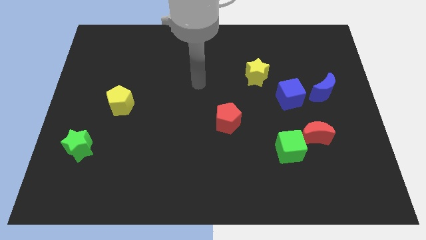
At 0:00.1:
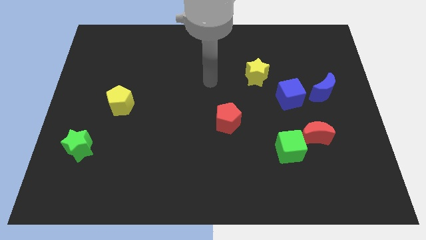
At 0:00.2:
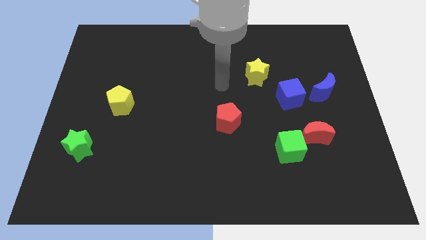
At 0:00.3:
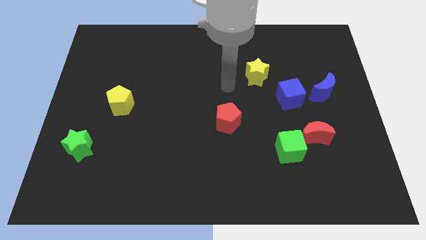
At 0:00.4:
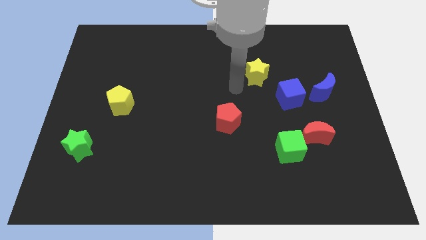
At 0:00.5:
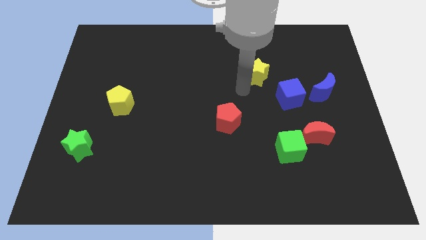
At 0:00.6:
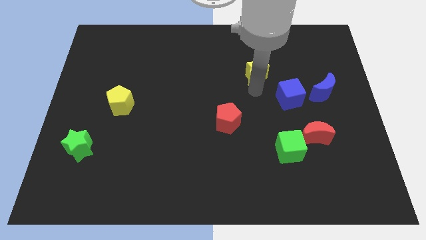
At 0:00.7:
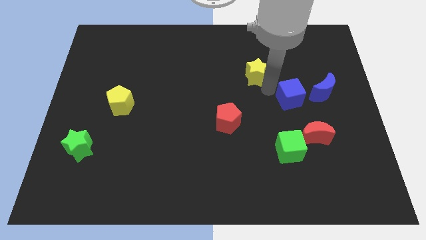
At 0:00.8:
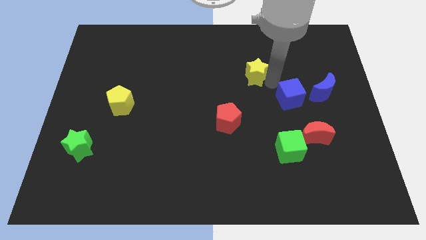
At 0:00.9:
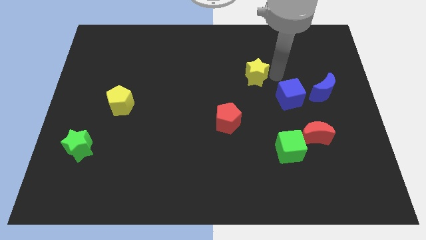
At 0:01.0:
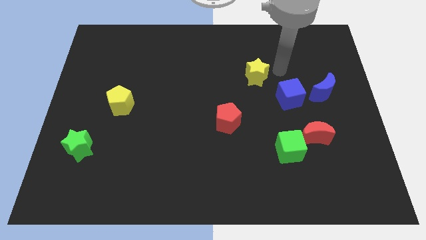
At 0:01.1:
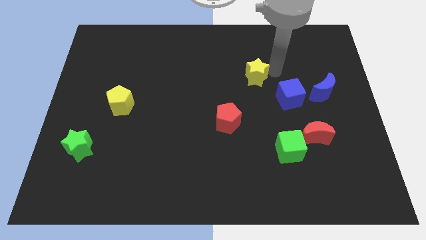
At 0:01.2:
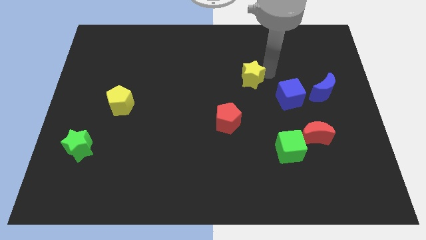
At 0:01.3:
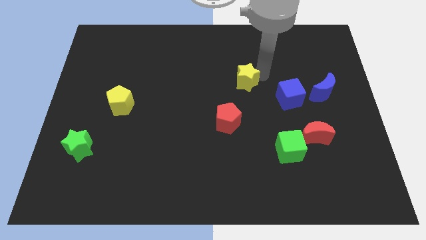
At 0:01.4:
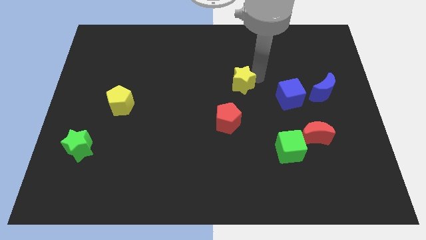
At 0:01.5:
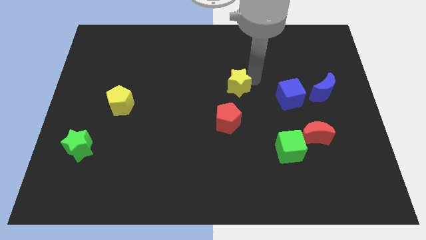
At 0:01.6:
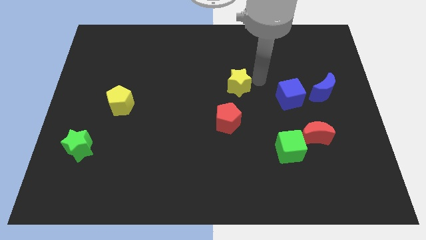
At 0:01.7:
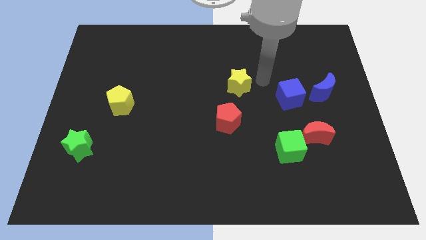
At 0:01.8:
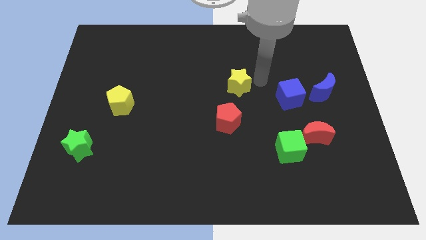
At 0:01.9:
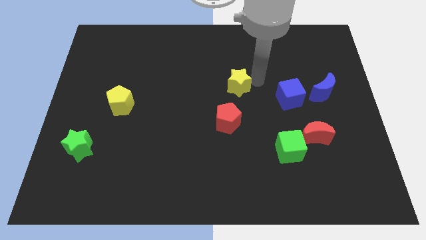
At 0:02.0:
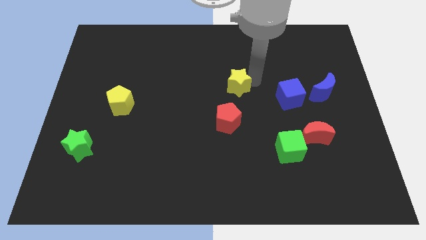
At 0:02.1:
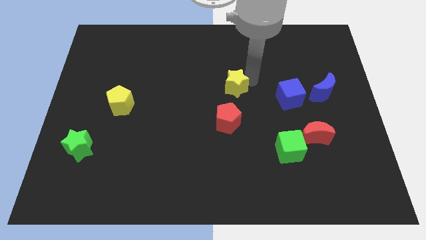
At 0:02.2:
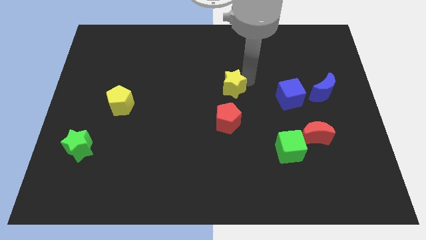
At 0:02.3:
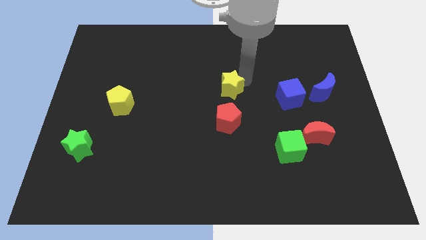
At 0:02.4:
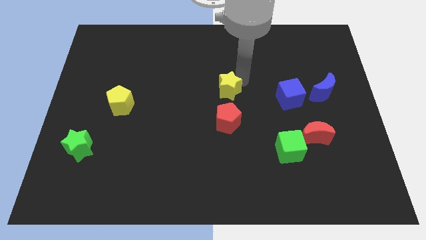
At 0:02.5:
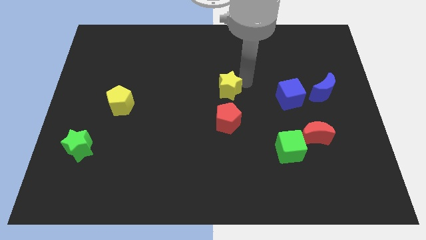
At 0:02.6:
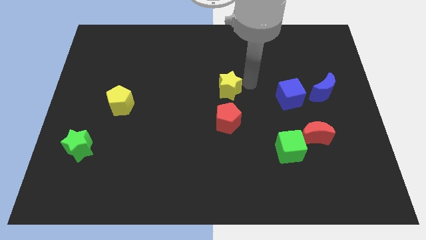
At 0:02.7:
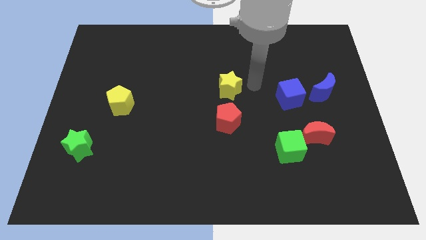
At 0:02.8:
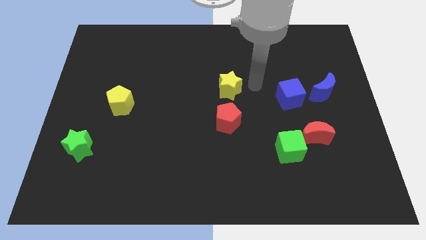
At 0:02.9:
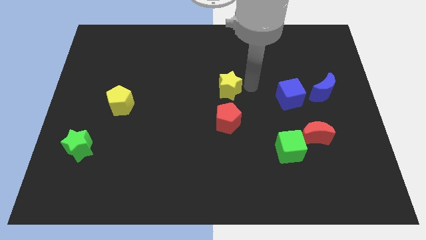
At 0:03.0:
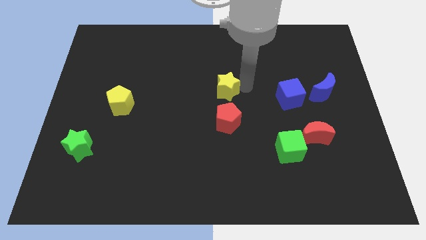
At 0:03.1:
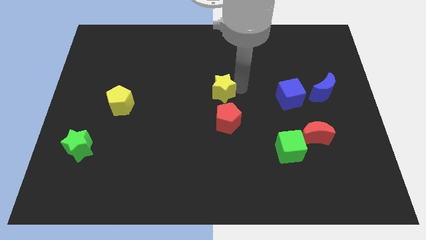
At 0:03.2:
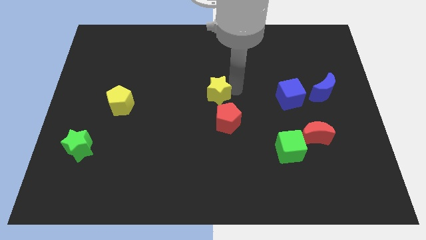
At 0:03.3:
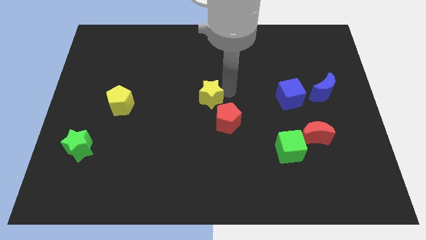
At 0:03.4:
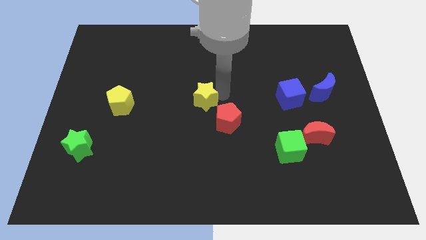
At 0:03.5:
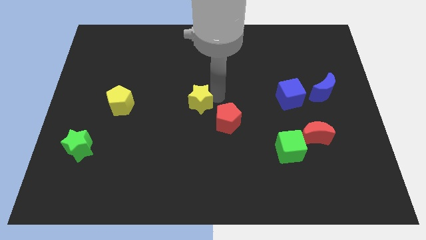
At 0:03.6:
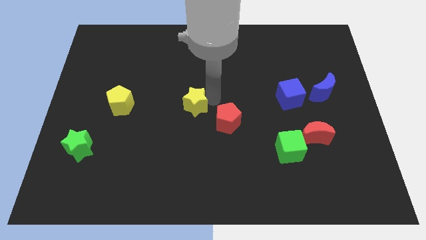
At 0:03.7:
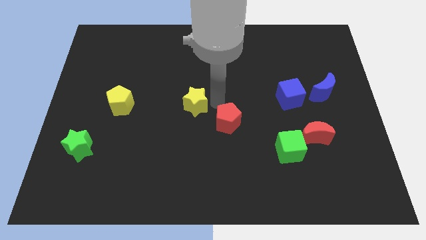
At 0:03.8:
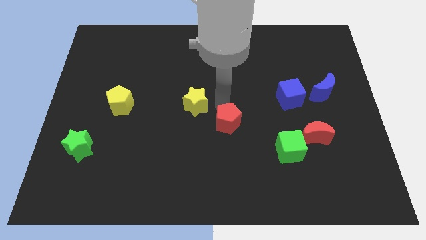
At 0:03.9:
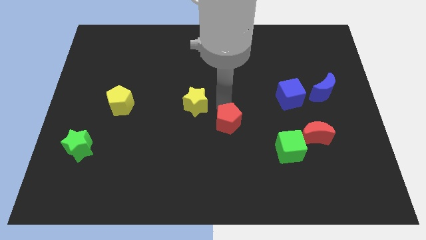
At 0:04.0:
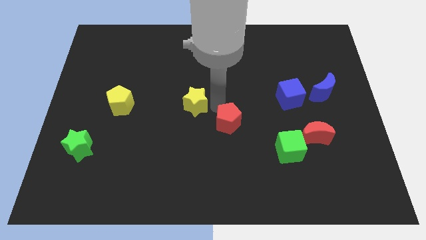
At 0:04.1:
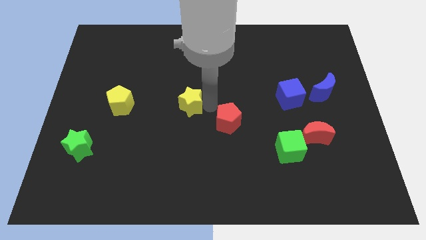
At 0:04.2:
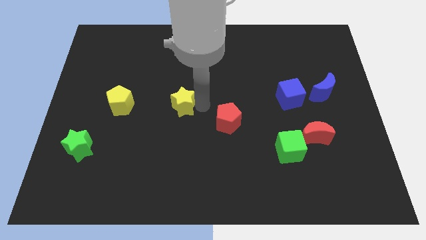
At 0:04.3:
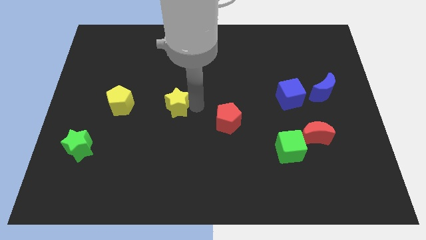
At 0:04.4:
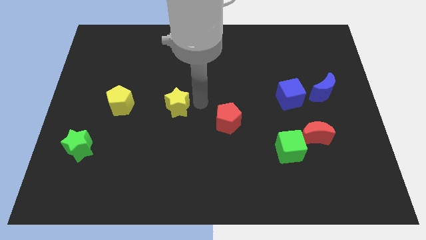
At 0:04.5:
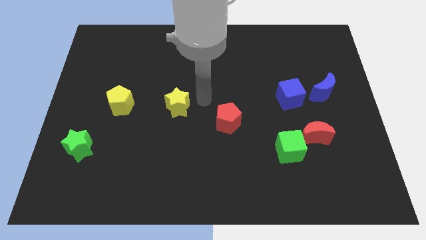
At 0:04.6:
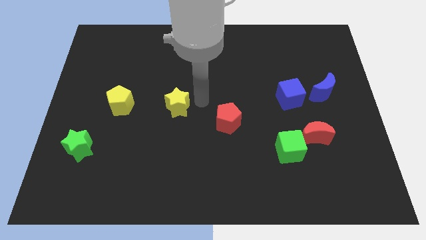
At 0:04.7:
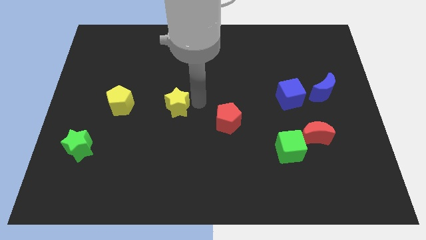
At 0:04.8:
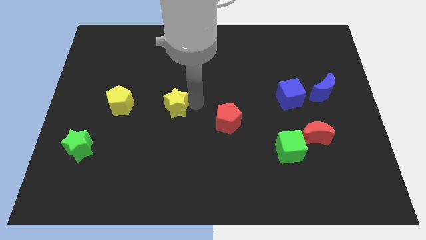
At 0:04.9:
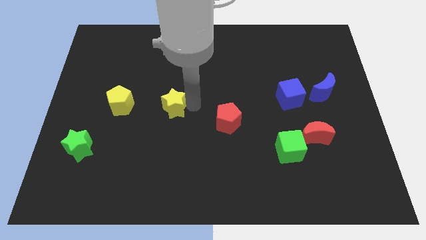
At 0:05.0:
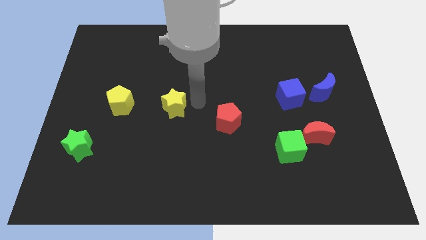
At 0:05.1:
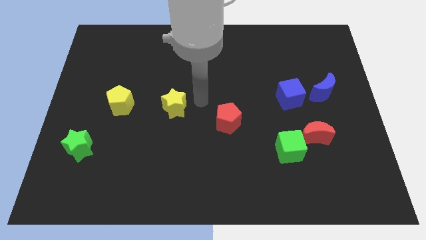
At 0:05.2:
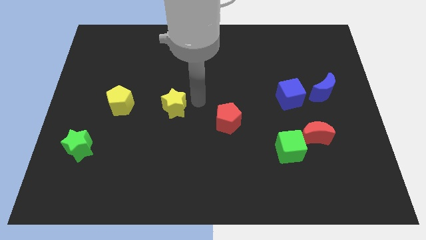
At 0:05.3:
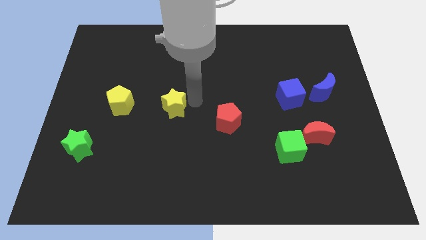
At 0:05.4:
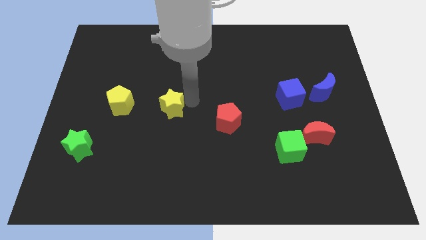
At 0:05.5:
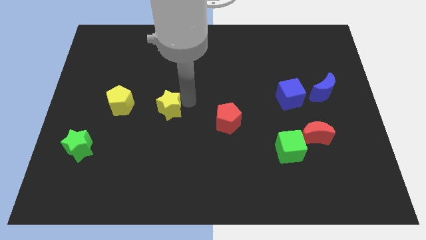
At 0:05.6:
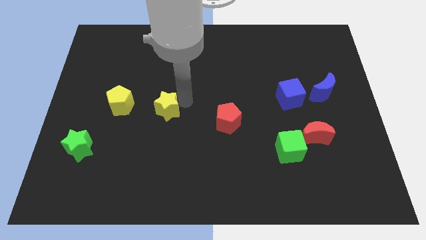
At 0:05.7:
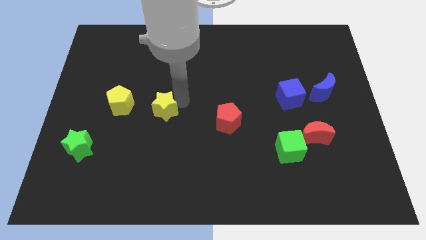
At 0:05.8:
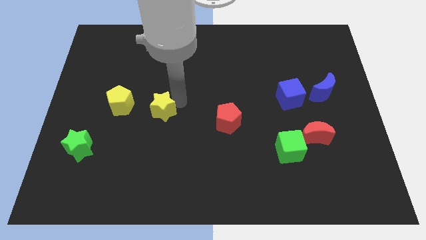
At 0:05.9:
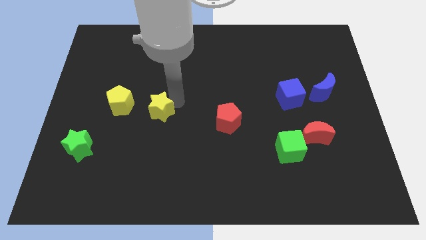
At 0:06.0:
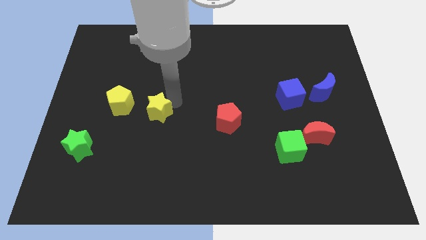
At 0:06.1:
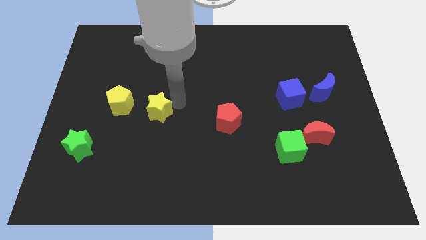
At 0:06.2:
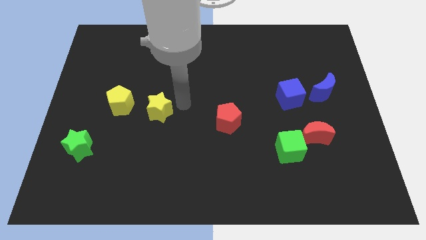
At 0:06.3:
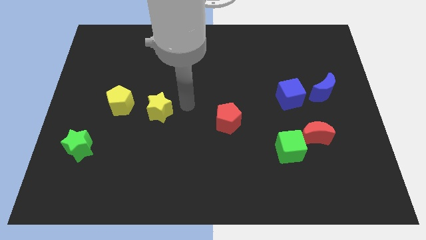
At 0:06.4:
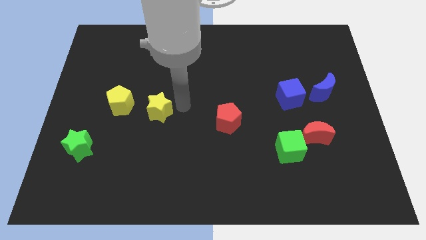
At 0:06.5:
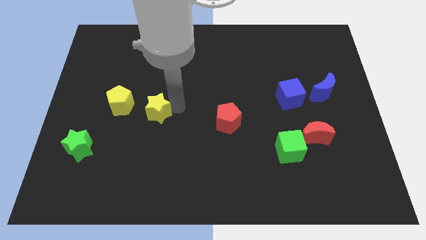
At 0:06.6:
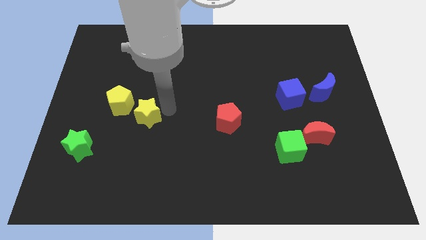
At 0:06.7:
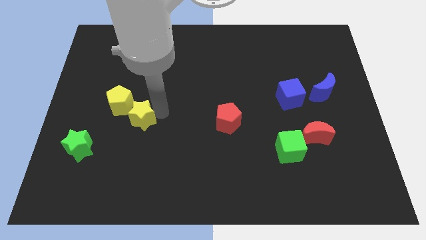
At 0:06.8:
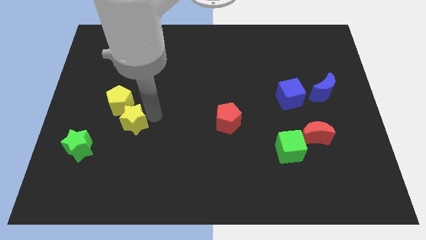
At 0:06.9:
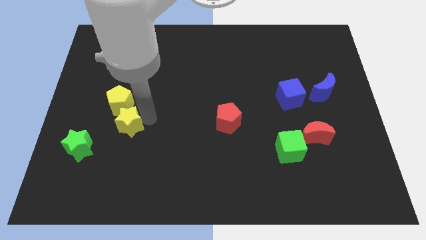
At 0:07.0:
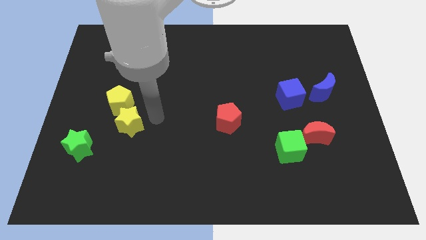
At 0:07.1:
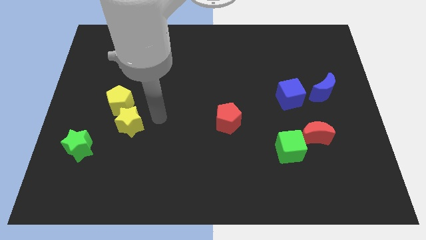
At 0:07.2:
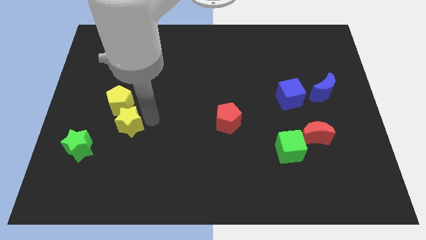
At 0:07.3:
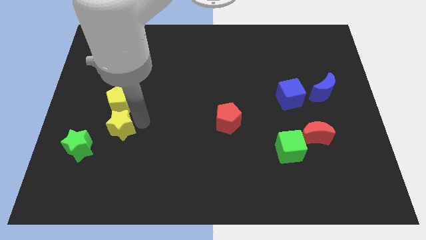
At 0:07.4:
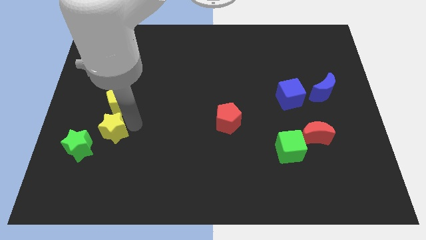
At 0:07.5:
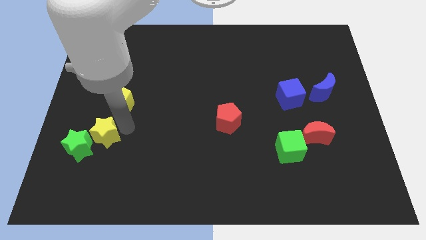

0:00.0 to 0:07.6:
move the yellow star next to the green star
